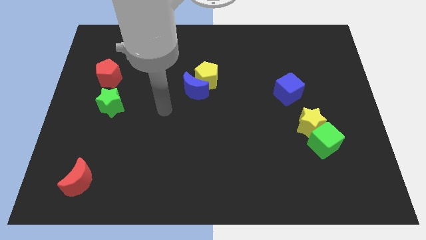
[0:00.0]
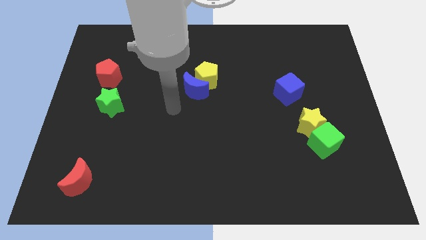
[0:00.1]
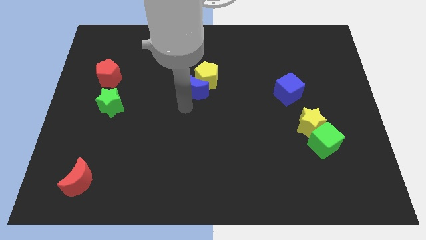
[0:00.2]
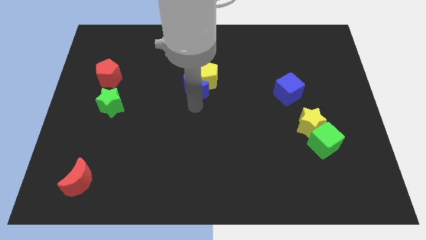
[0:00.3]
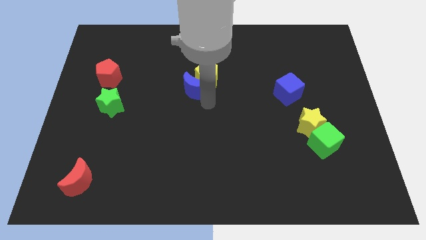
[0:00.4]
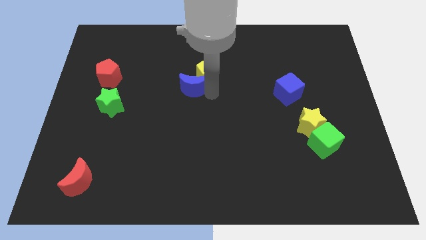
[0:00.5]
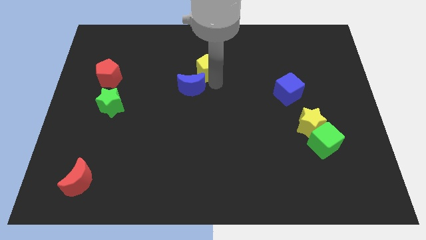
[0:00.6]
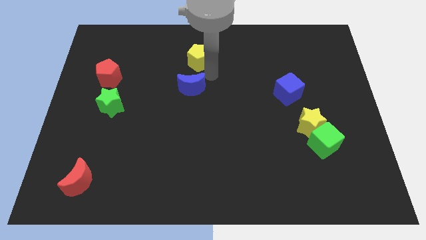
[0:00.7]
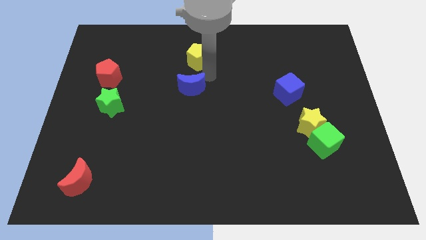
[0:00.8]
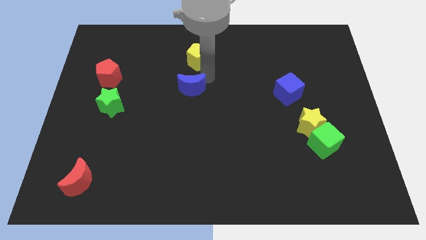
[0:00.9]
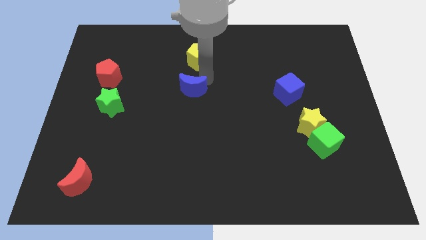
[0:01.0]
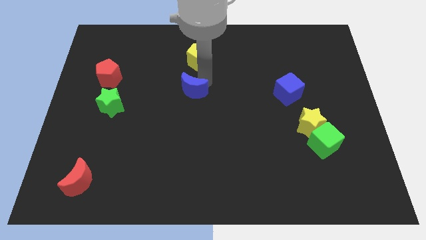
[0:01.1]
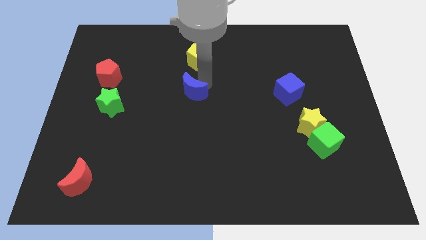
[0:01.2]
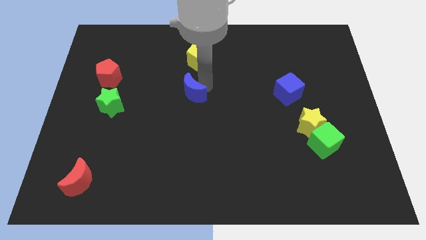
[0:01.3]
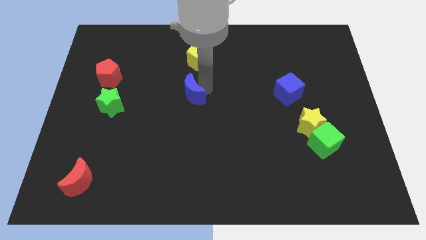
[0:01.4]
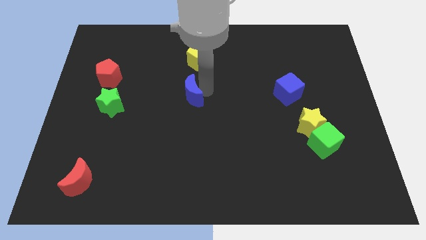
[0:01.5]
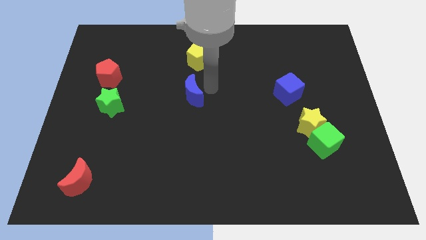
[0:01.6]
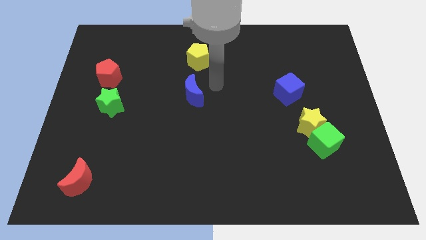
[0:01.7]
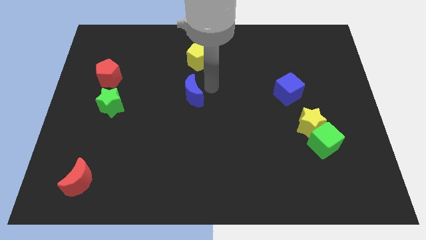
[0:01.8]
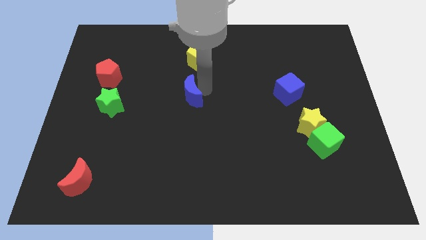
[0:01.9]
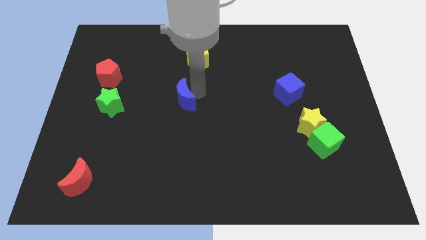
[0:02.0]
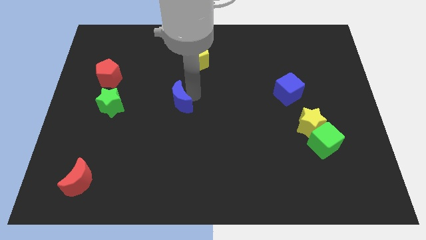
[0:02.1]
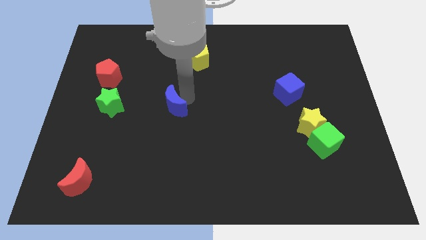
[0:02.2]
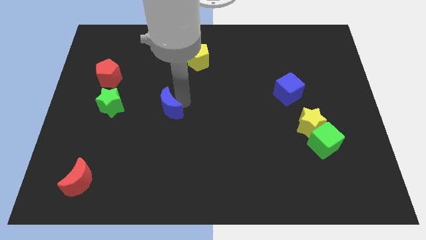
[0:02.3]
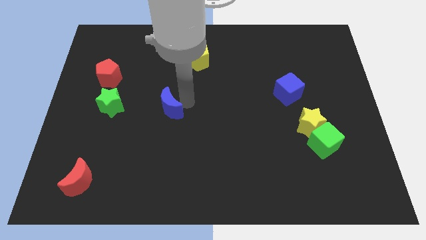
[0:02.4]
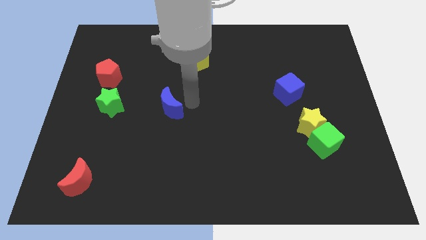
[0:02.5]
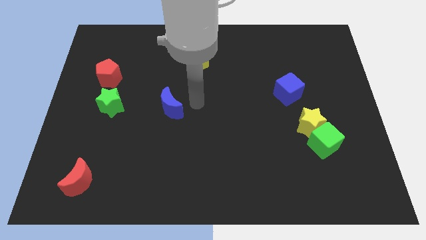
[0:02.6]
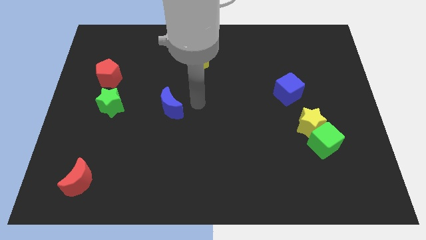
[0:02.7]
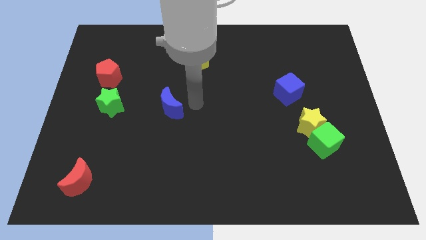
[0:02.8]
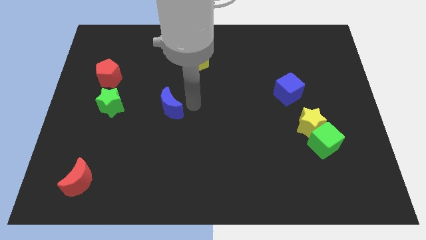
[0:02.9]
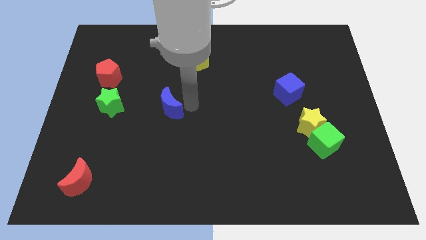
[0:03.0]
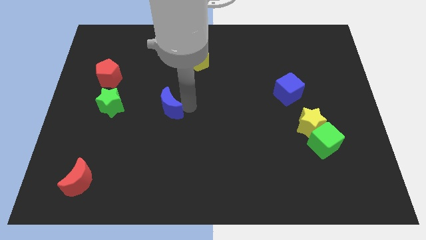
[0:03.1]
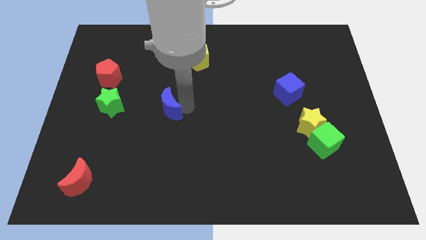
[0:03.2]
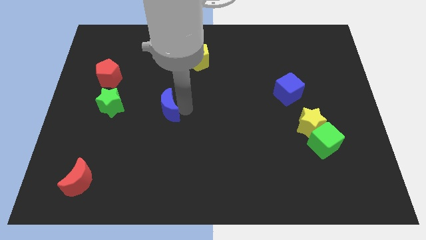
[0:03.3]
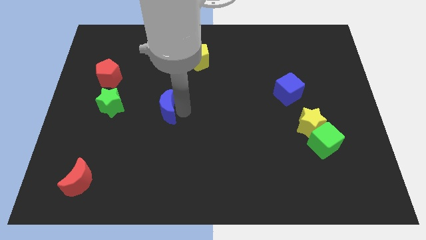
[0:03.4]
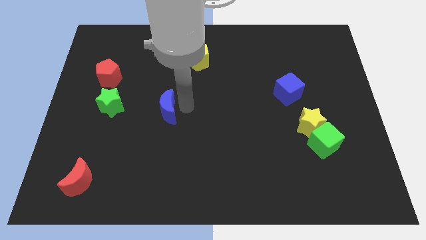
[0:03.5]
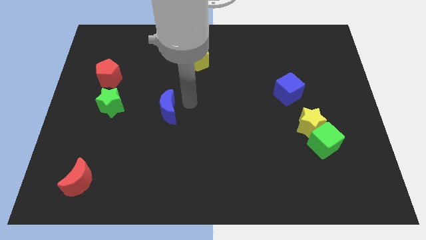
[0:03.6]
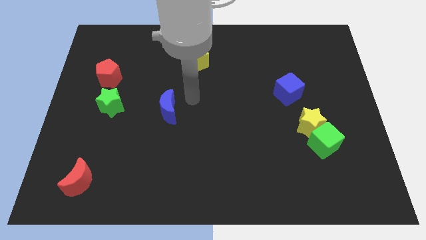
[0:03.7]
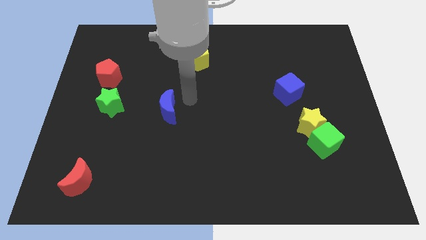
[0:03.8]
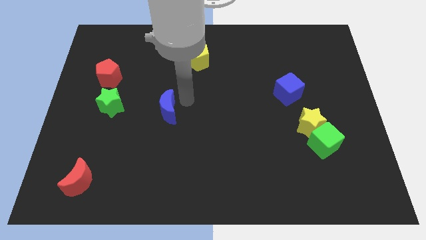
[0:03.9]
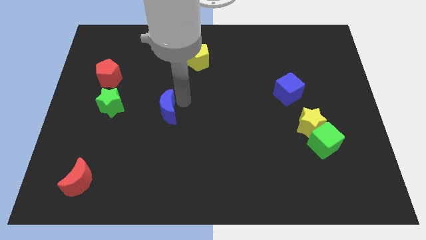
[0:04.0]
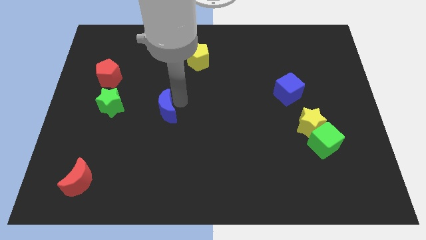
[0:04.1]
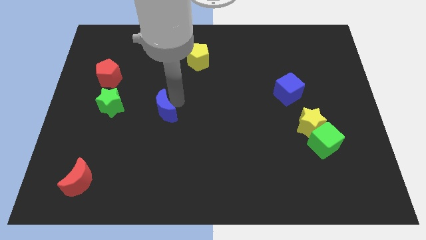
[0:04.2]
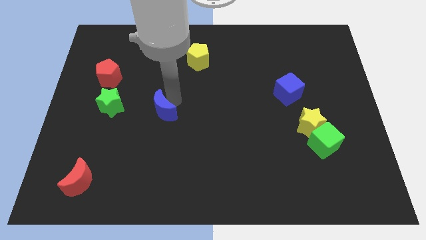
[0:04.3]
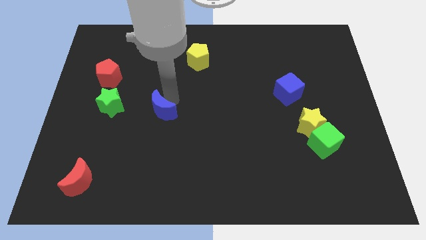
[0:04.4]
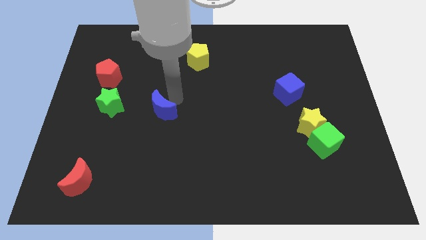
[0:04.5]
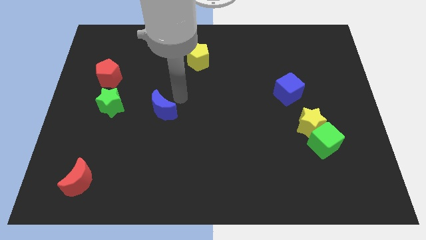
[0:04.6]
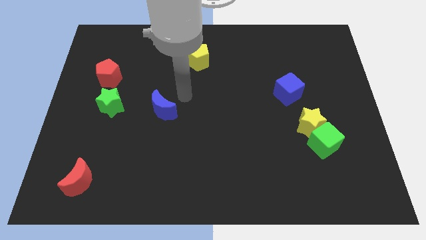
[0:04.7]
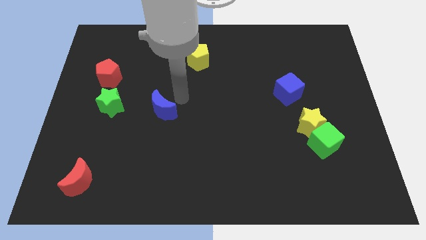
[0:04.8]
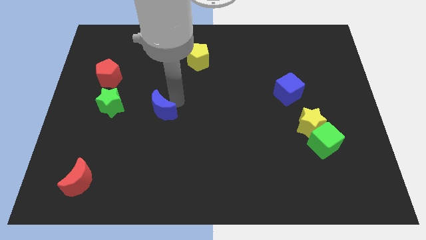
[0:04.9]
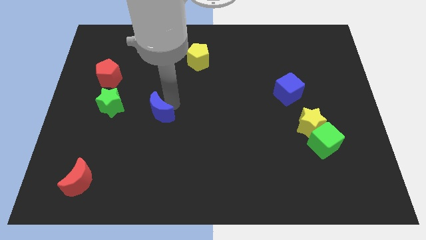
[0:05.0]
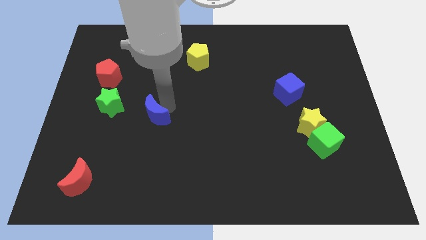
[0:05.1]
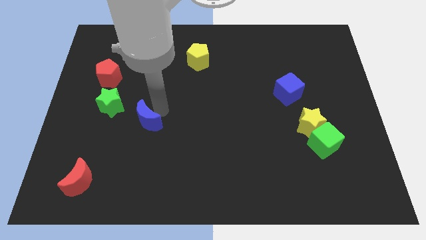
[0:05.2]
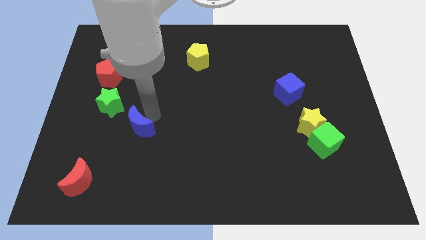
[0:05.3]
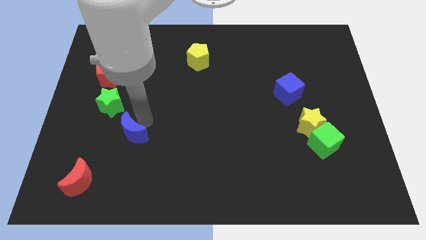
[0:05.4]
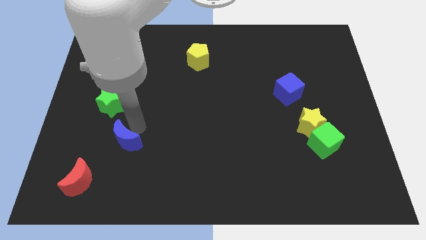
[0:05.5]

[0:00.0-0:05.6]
push the blue moon diagonally up and to the right of the red moon

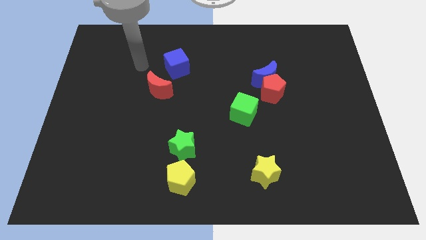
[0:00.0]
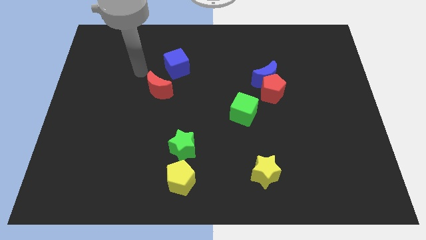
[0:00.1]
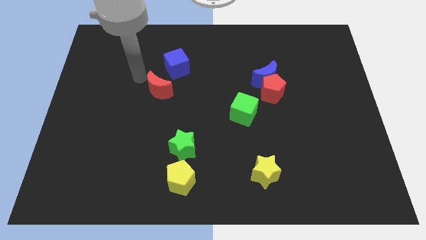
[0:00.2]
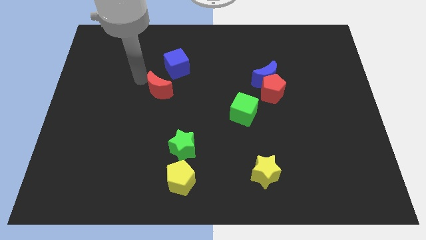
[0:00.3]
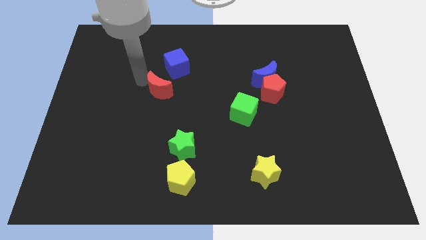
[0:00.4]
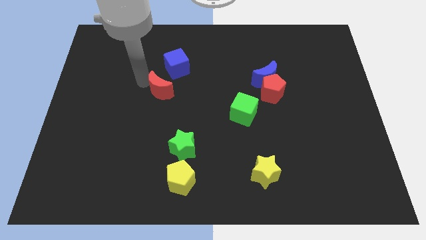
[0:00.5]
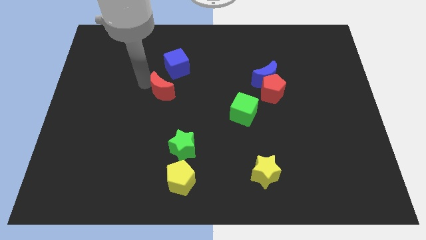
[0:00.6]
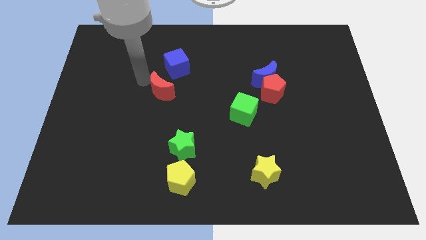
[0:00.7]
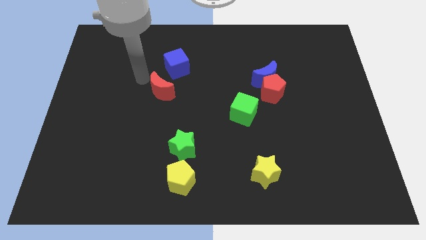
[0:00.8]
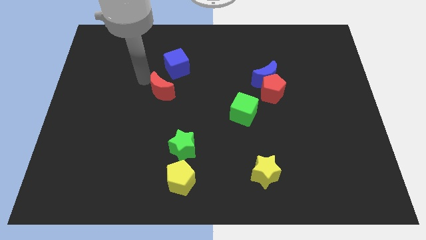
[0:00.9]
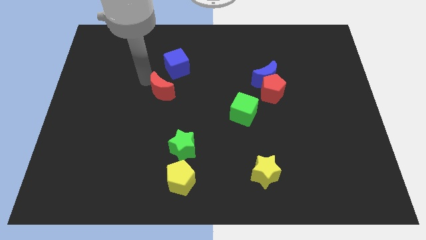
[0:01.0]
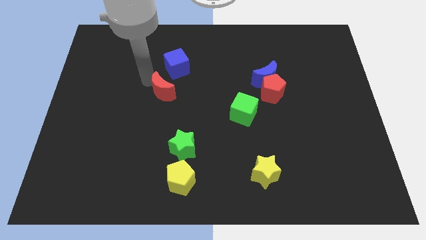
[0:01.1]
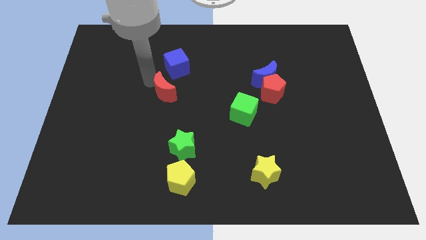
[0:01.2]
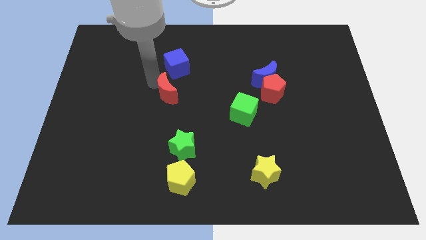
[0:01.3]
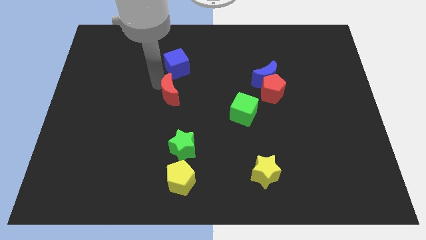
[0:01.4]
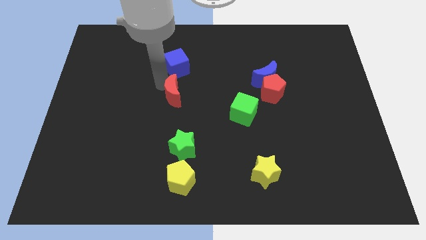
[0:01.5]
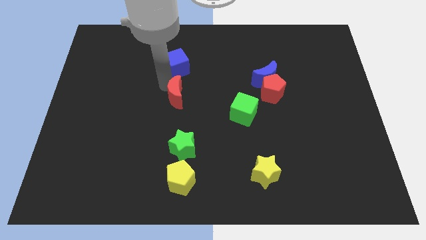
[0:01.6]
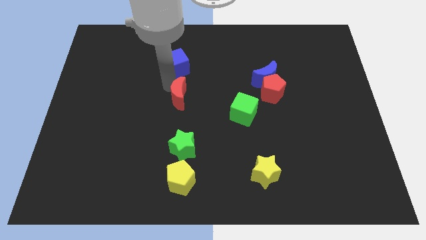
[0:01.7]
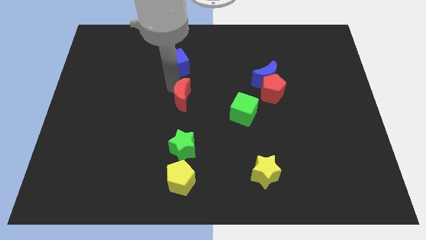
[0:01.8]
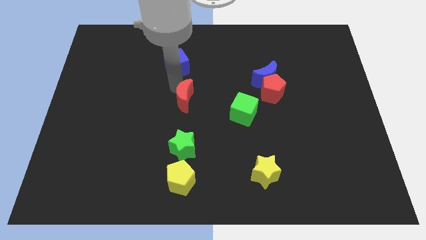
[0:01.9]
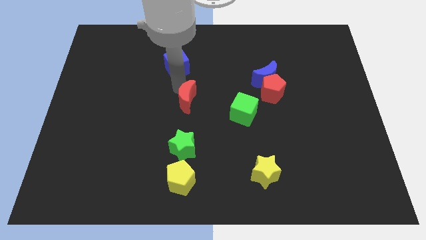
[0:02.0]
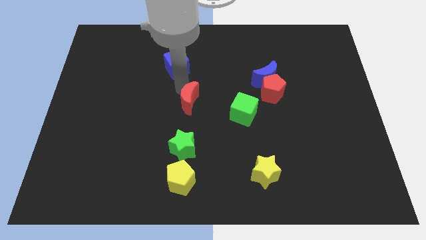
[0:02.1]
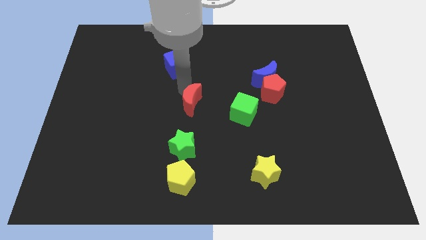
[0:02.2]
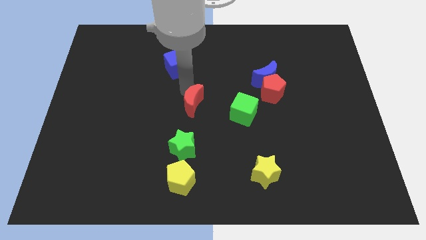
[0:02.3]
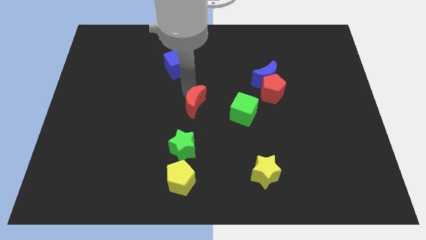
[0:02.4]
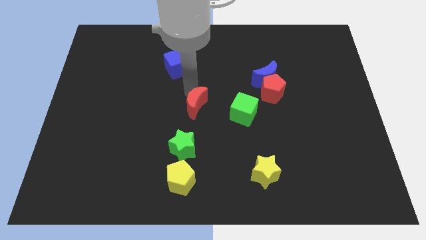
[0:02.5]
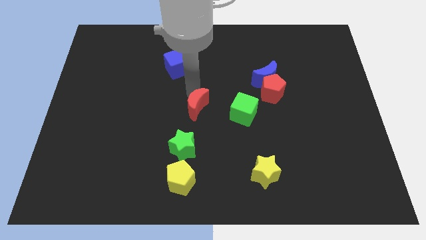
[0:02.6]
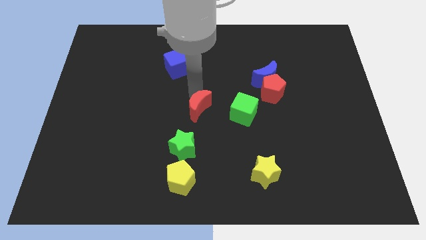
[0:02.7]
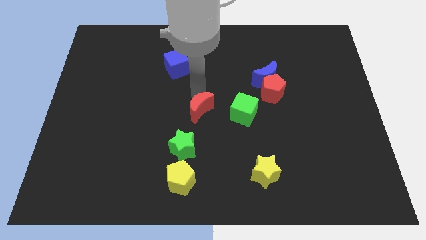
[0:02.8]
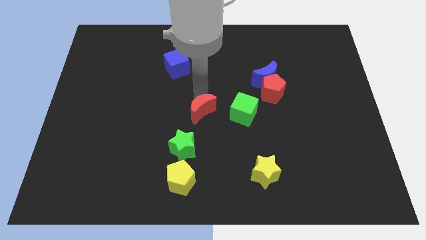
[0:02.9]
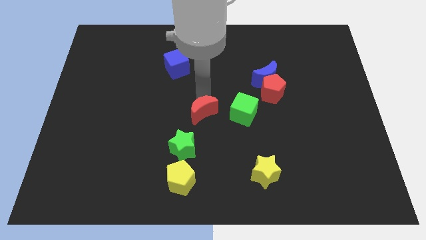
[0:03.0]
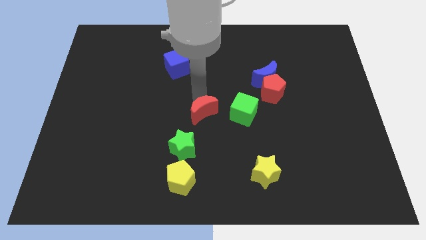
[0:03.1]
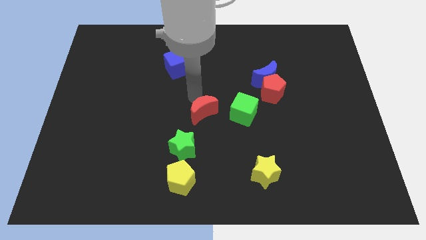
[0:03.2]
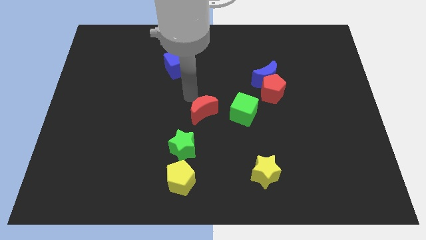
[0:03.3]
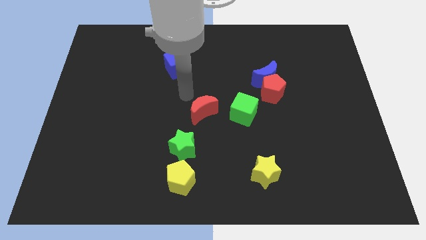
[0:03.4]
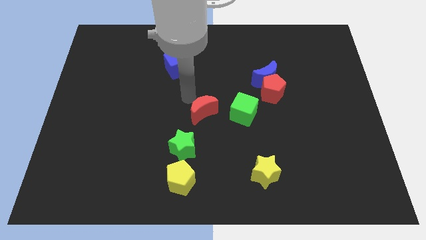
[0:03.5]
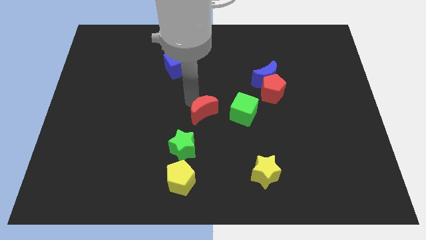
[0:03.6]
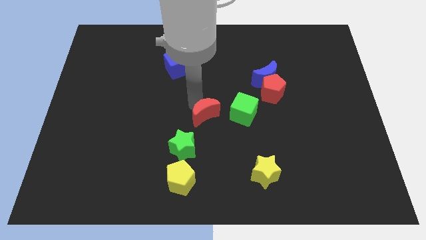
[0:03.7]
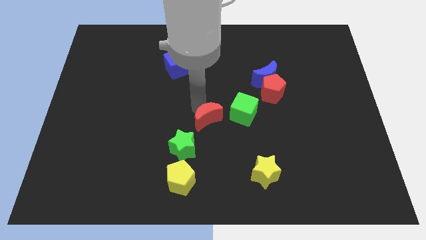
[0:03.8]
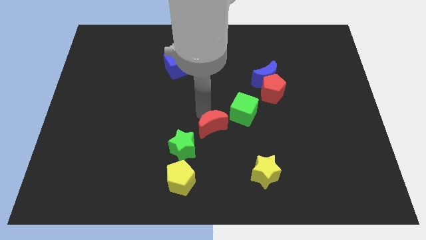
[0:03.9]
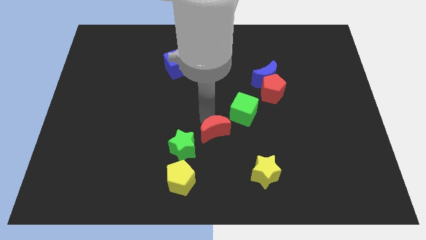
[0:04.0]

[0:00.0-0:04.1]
put the red moon to the right side of the green star
